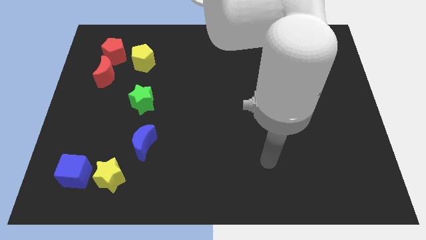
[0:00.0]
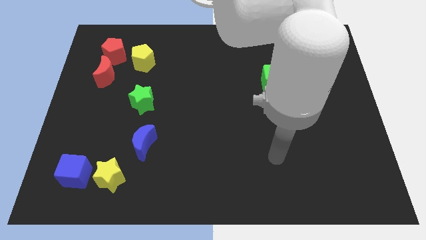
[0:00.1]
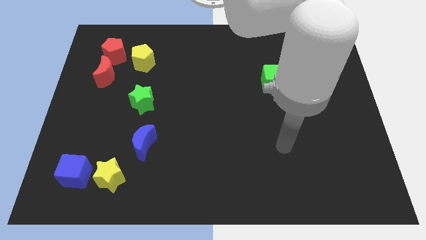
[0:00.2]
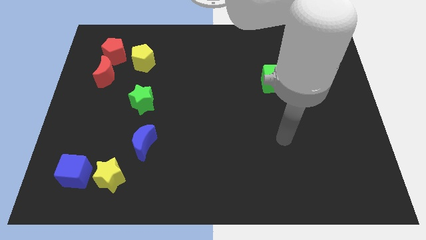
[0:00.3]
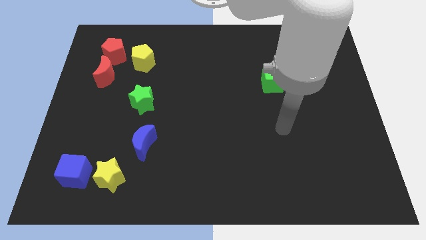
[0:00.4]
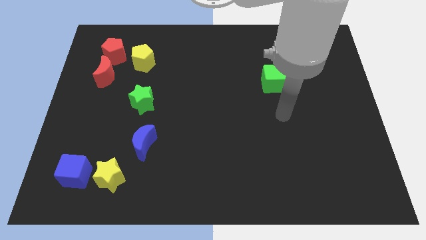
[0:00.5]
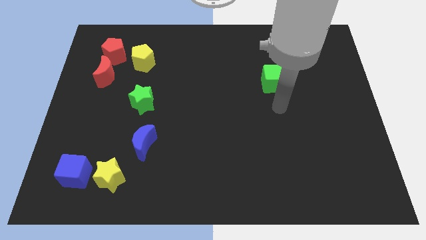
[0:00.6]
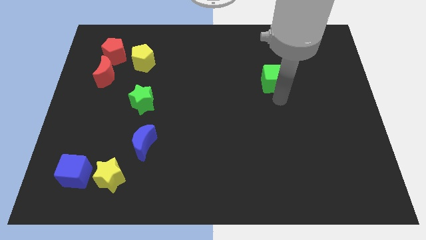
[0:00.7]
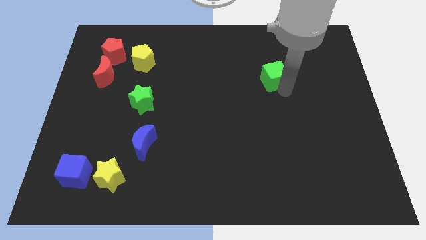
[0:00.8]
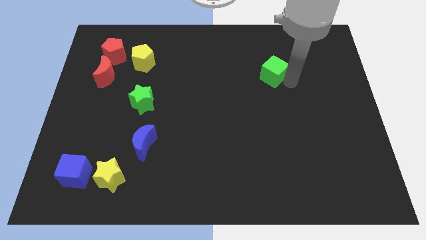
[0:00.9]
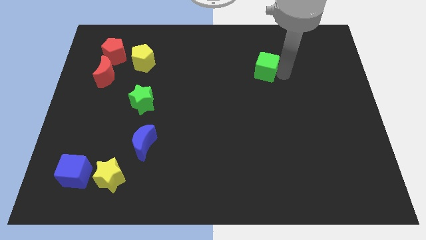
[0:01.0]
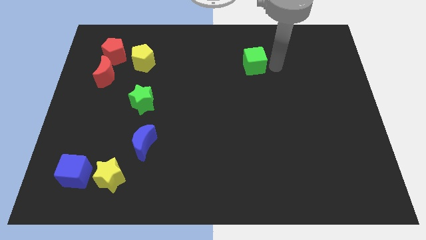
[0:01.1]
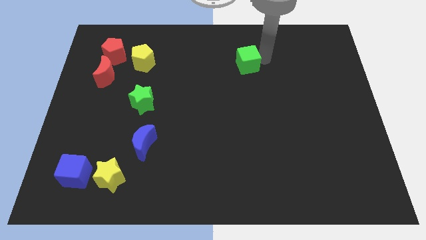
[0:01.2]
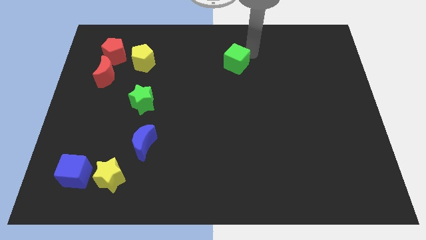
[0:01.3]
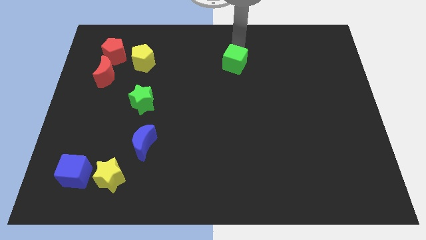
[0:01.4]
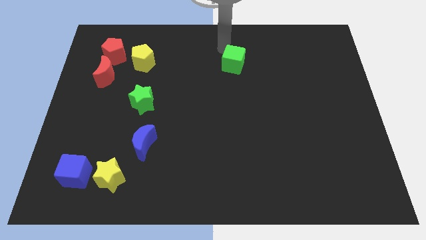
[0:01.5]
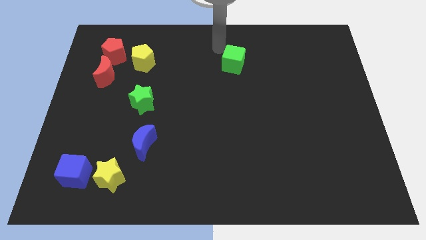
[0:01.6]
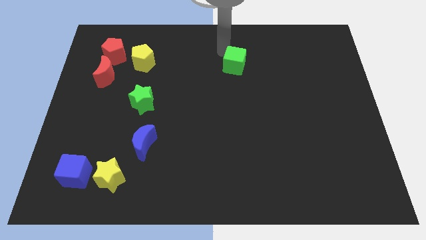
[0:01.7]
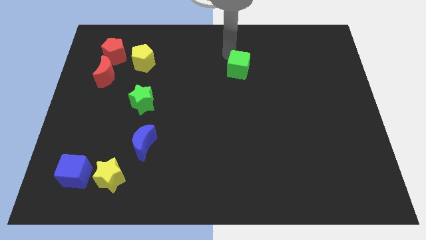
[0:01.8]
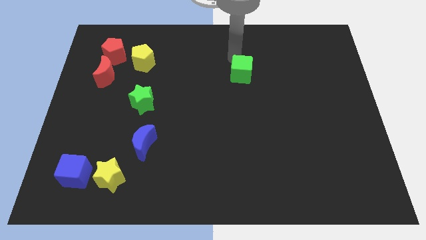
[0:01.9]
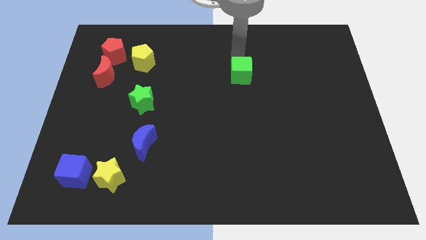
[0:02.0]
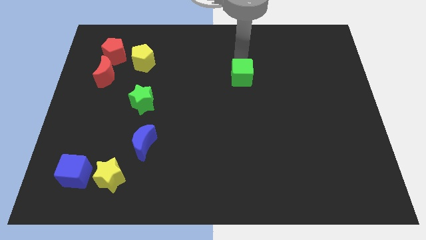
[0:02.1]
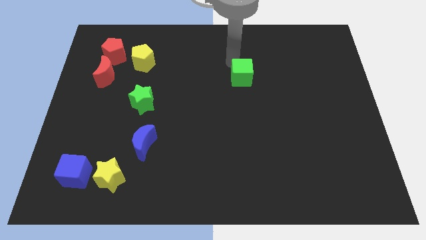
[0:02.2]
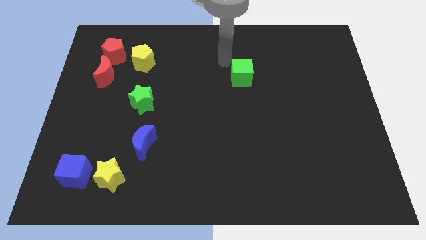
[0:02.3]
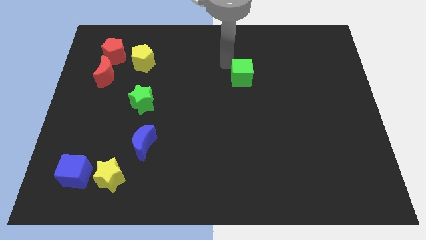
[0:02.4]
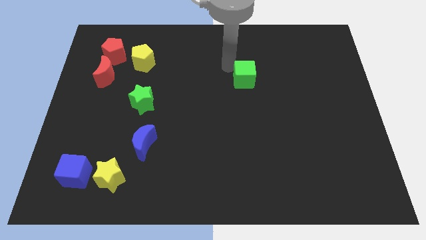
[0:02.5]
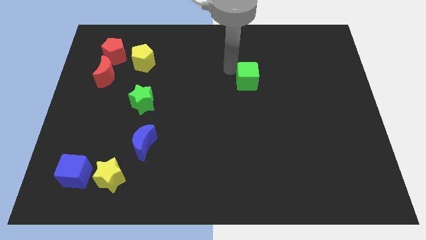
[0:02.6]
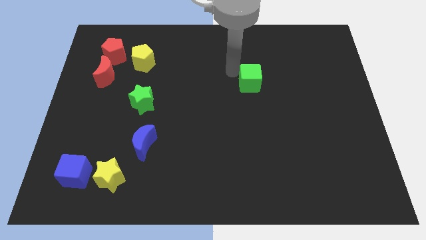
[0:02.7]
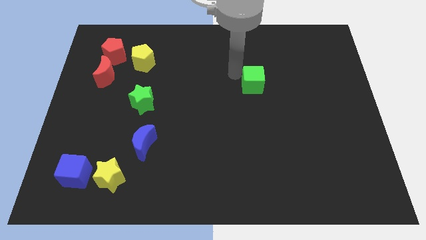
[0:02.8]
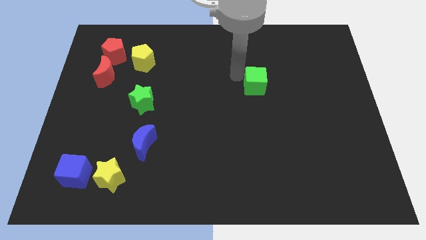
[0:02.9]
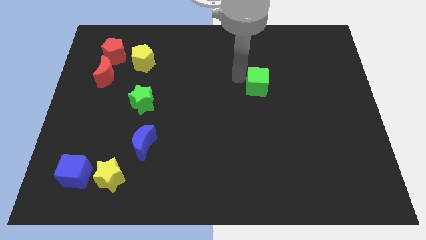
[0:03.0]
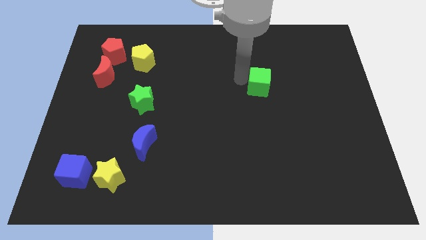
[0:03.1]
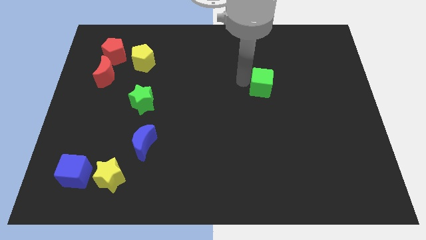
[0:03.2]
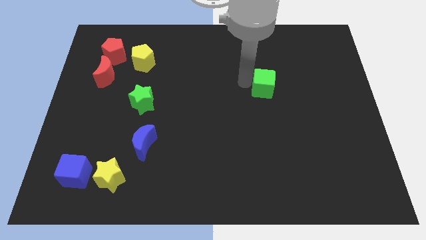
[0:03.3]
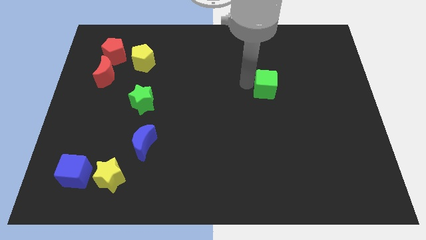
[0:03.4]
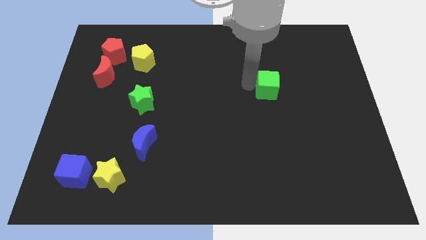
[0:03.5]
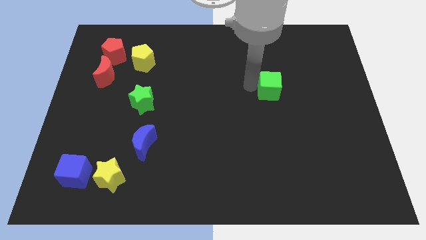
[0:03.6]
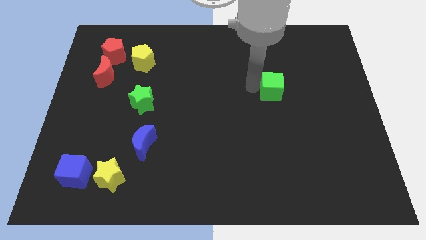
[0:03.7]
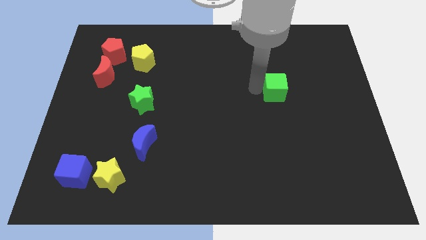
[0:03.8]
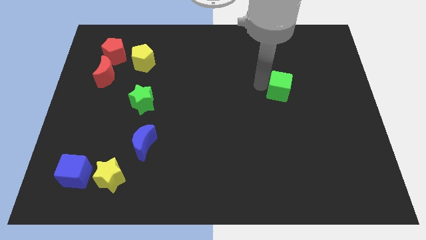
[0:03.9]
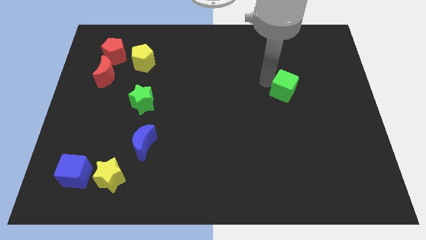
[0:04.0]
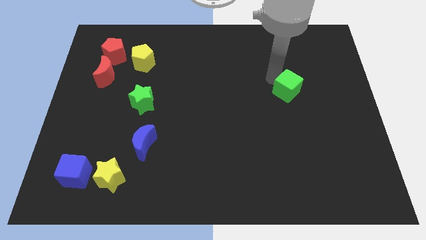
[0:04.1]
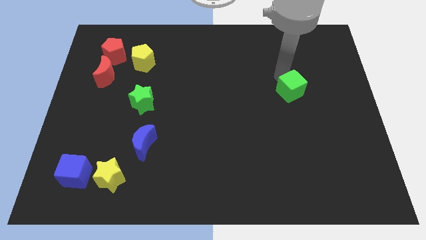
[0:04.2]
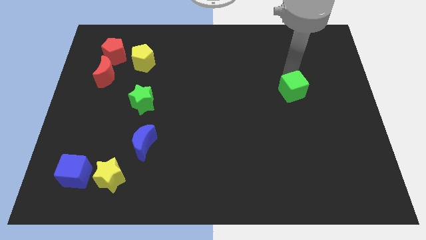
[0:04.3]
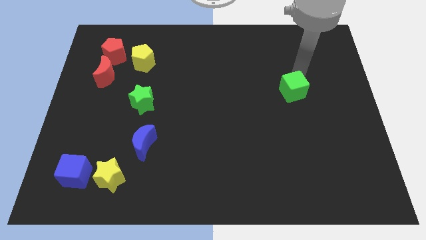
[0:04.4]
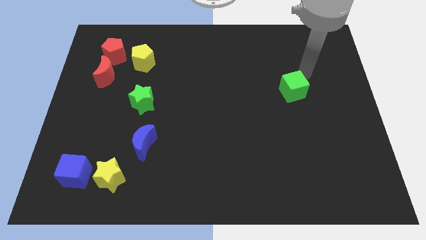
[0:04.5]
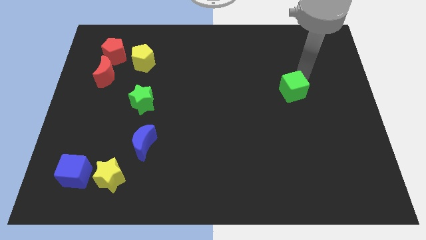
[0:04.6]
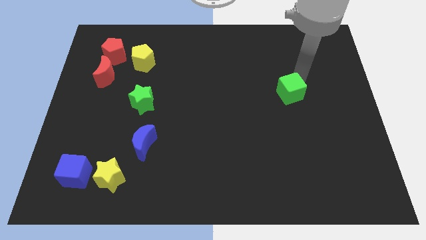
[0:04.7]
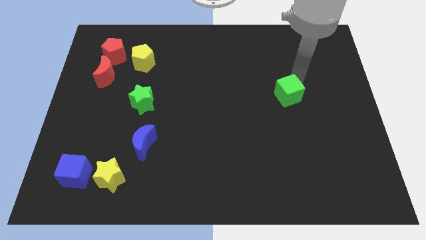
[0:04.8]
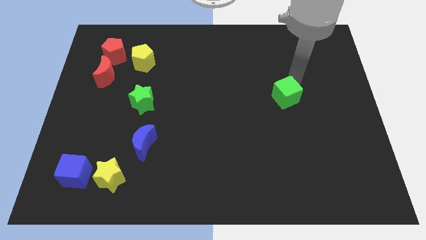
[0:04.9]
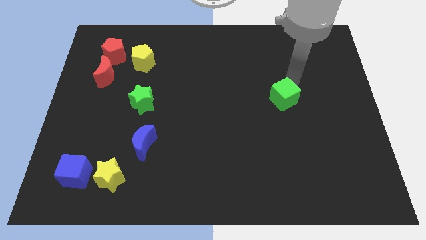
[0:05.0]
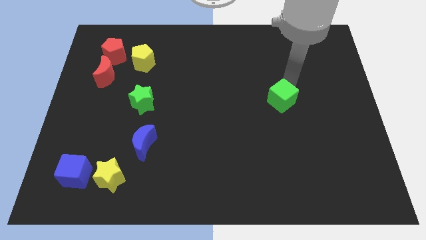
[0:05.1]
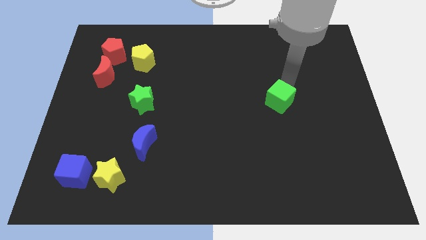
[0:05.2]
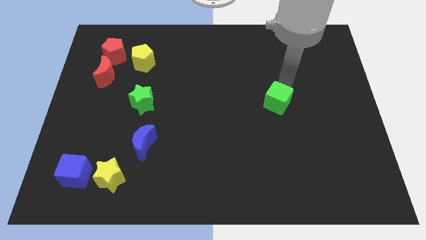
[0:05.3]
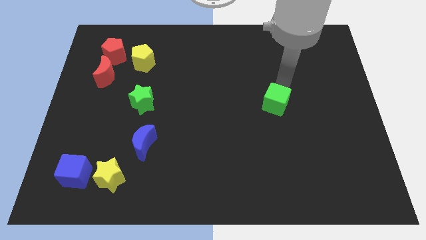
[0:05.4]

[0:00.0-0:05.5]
push the green cube somewhat downwards

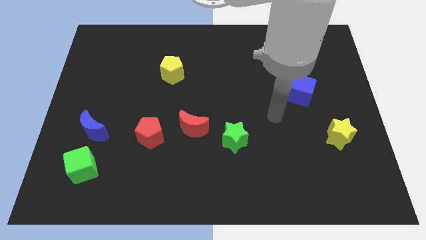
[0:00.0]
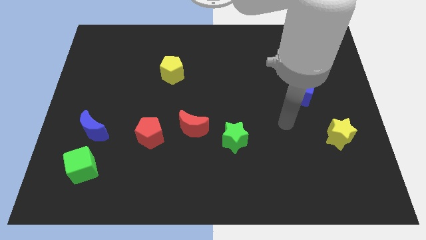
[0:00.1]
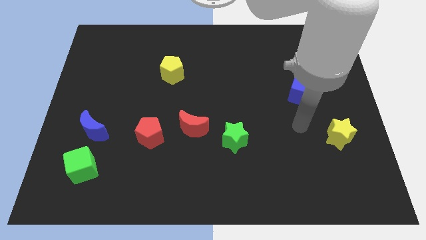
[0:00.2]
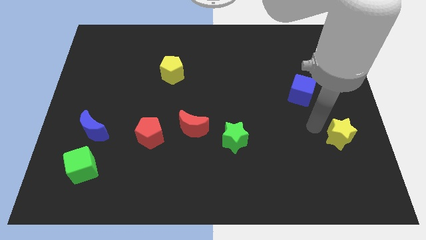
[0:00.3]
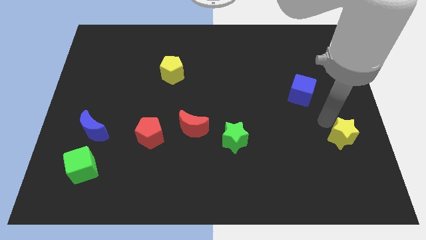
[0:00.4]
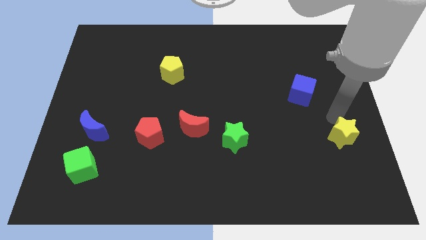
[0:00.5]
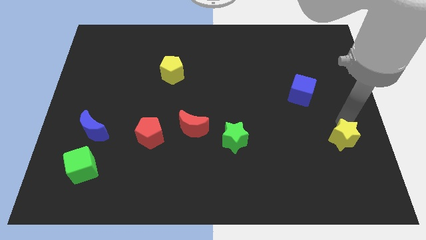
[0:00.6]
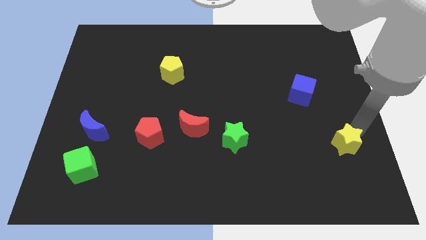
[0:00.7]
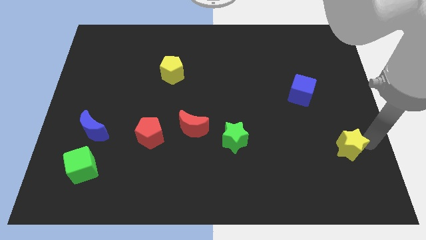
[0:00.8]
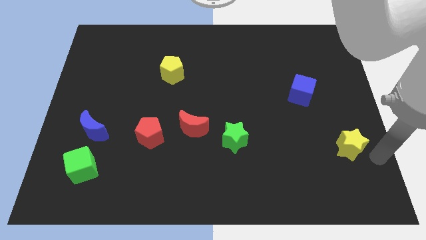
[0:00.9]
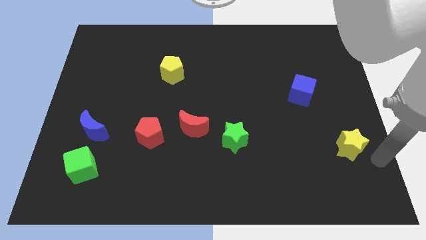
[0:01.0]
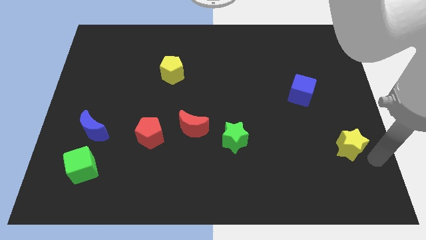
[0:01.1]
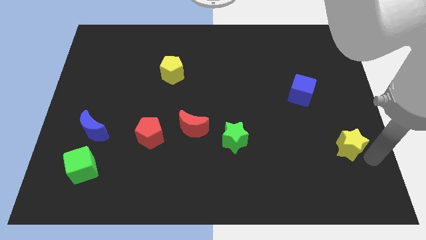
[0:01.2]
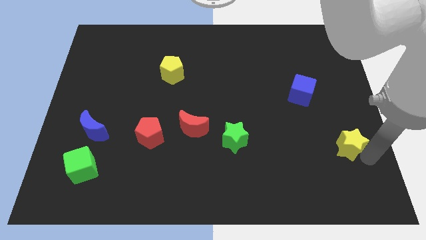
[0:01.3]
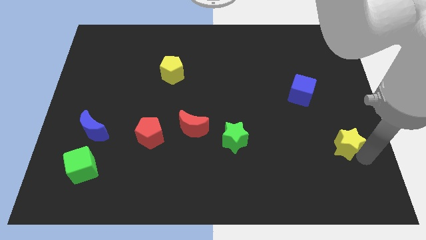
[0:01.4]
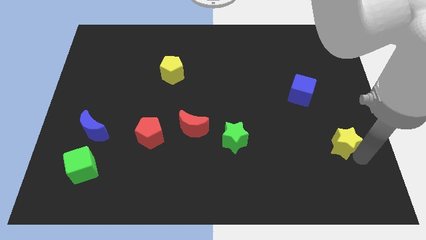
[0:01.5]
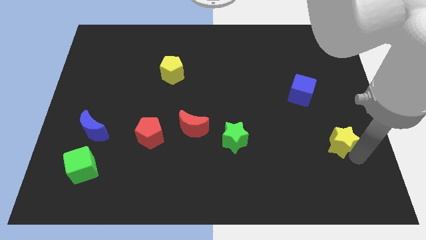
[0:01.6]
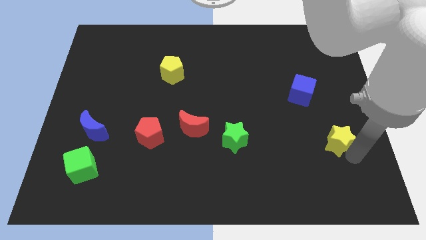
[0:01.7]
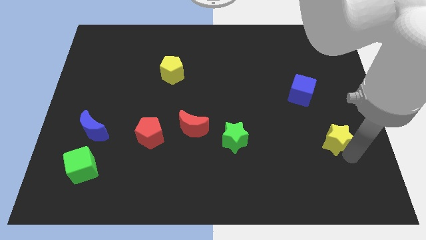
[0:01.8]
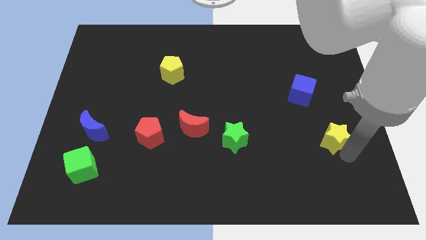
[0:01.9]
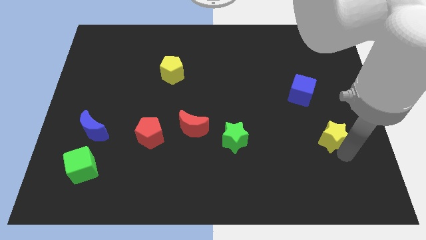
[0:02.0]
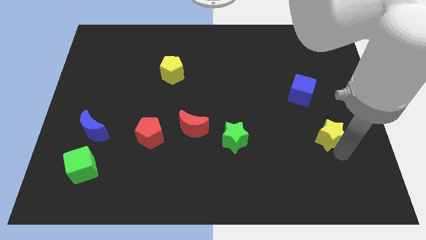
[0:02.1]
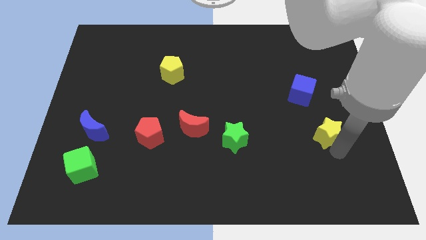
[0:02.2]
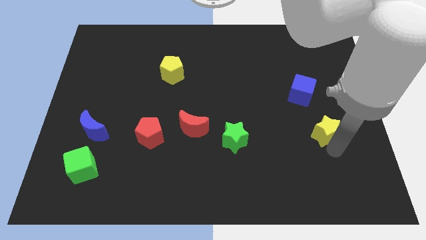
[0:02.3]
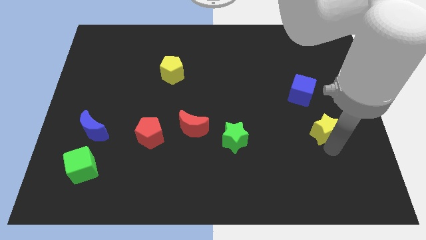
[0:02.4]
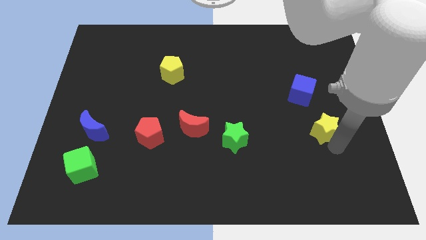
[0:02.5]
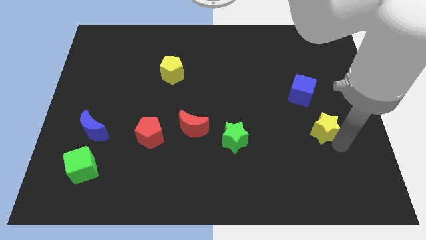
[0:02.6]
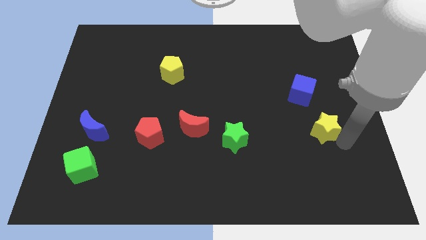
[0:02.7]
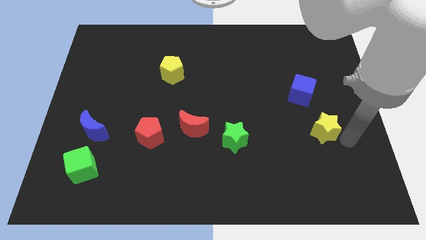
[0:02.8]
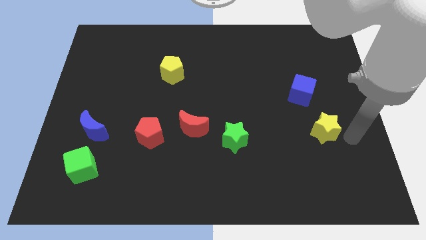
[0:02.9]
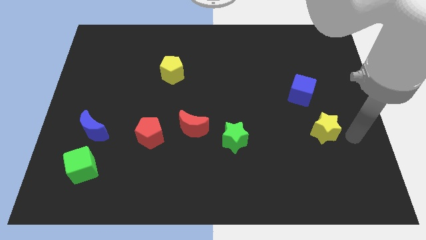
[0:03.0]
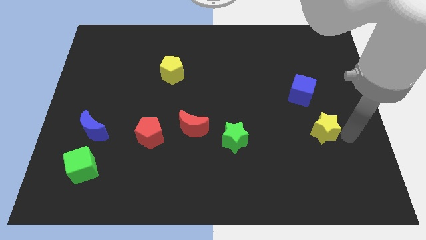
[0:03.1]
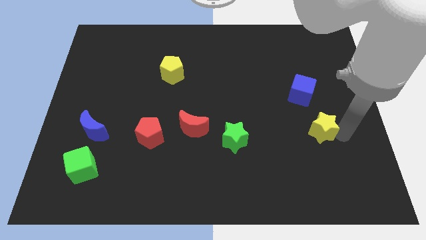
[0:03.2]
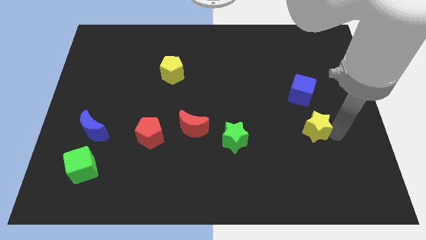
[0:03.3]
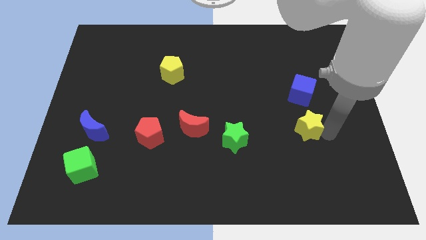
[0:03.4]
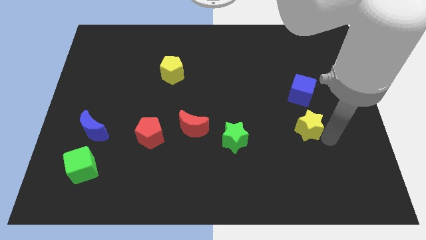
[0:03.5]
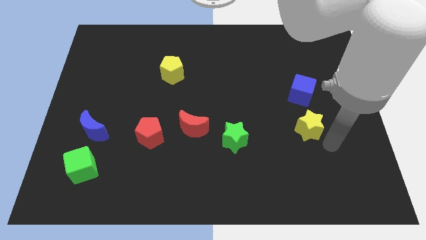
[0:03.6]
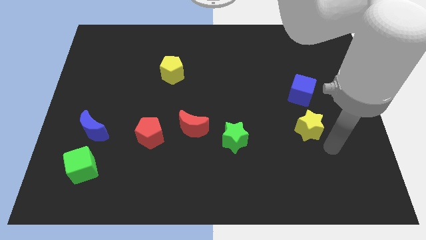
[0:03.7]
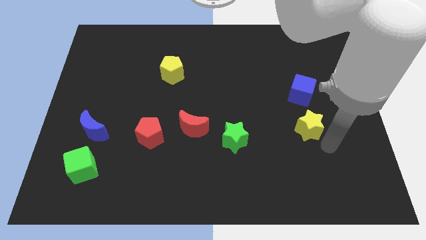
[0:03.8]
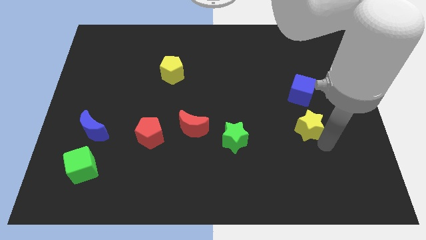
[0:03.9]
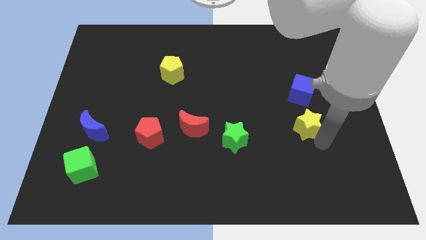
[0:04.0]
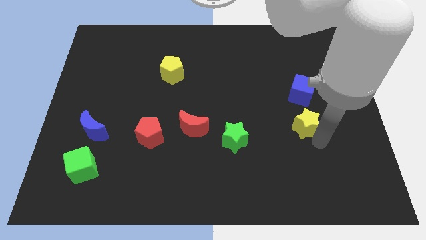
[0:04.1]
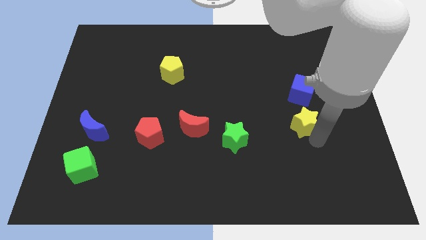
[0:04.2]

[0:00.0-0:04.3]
slide the yellow star somewhat diagonally upwards and to the left
